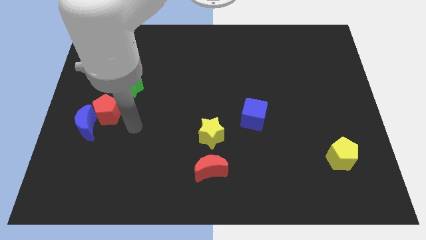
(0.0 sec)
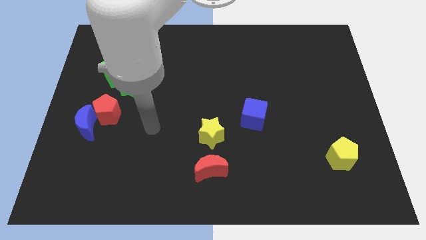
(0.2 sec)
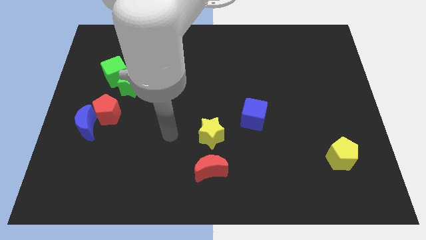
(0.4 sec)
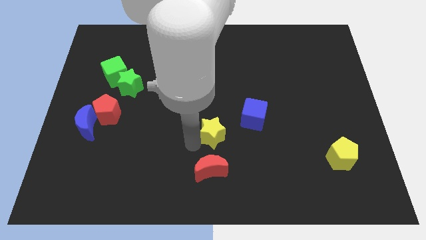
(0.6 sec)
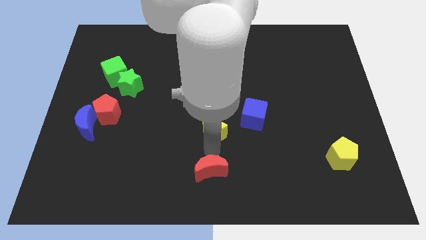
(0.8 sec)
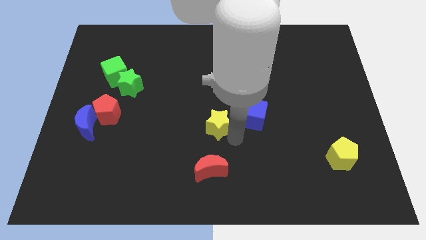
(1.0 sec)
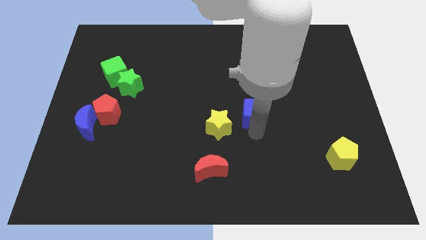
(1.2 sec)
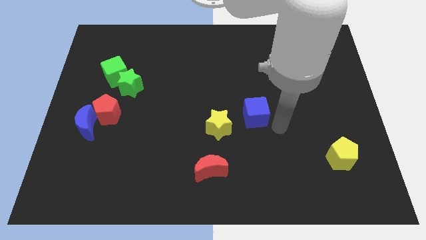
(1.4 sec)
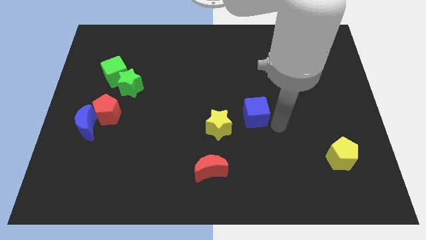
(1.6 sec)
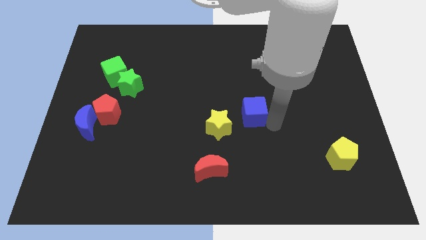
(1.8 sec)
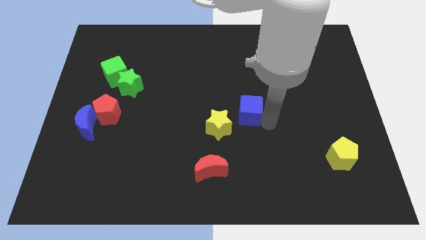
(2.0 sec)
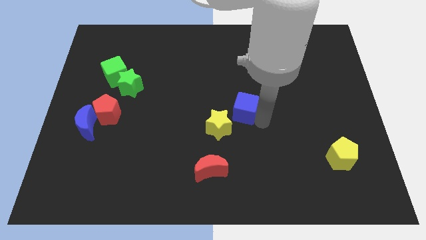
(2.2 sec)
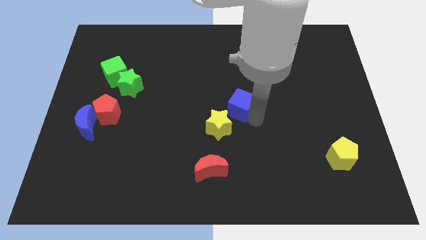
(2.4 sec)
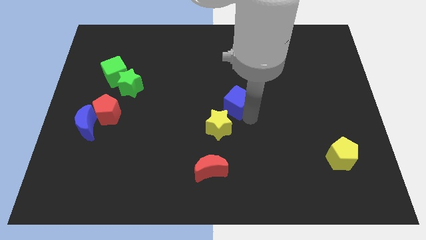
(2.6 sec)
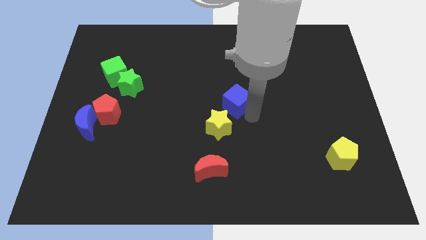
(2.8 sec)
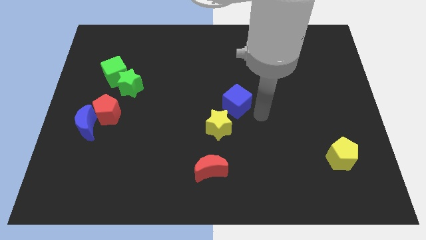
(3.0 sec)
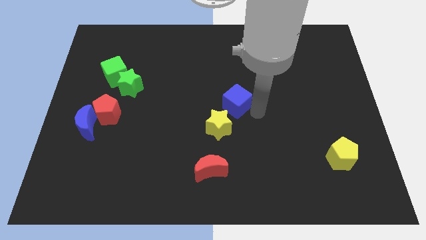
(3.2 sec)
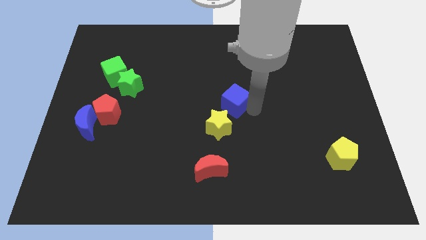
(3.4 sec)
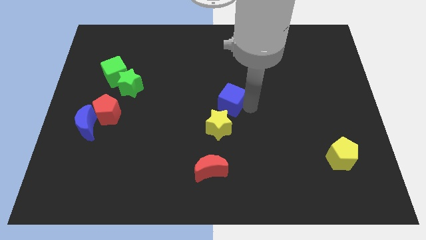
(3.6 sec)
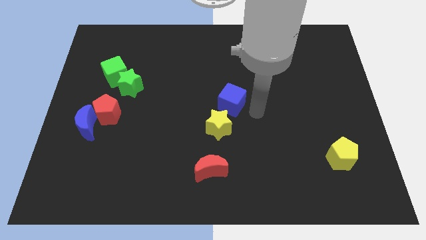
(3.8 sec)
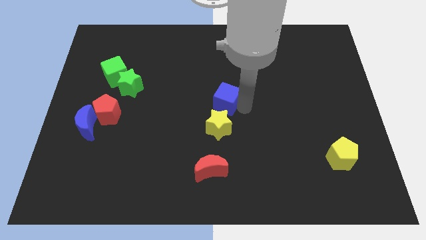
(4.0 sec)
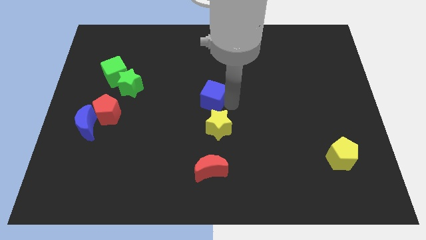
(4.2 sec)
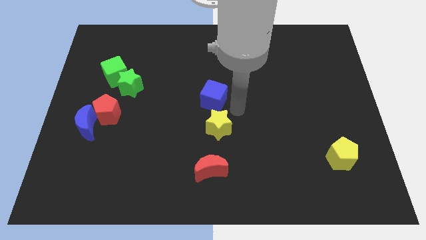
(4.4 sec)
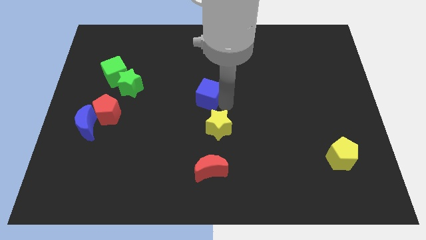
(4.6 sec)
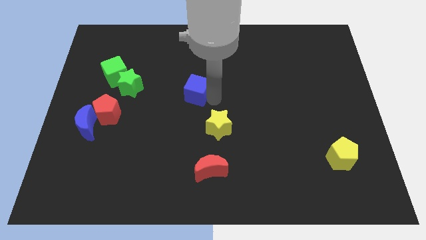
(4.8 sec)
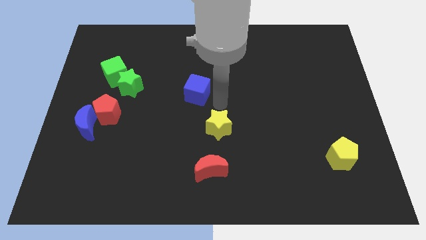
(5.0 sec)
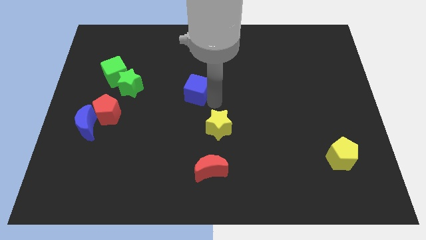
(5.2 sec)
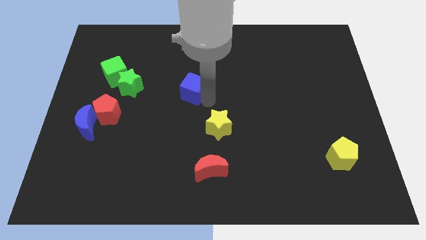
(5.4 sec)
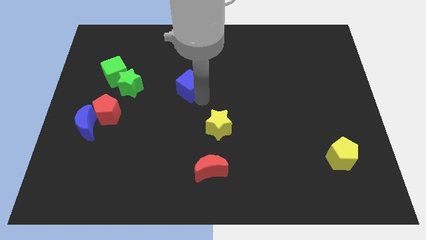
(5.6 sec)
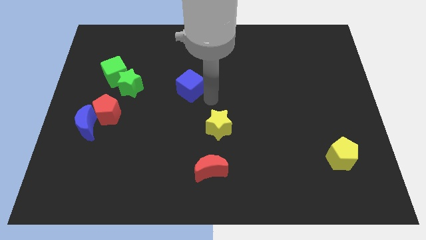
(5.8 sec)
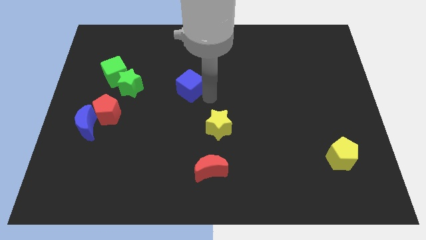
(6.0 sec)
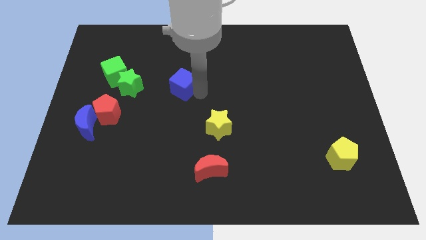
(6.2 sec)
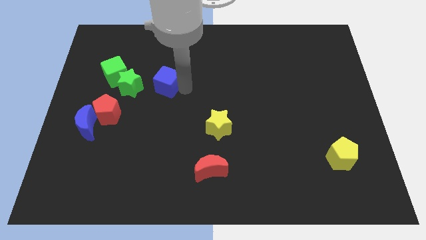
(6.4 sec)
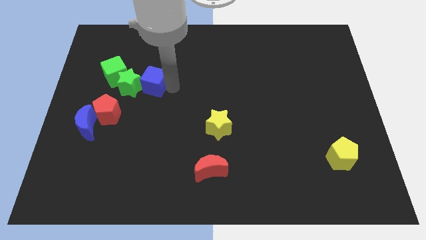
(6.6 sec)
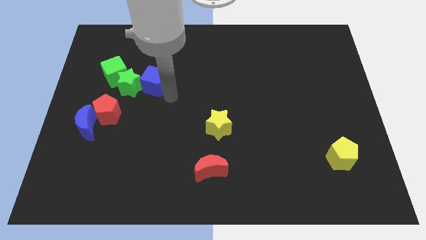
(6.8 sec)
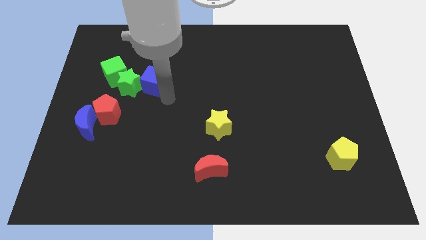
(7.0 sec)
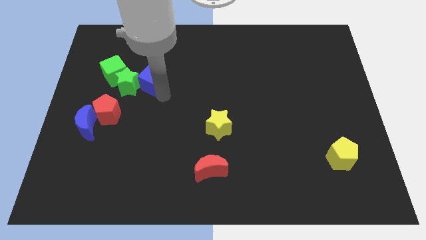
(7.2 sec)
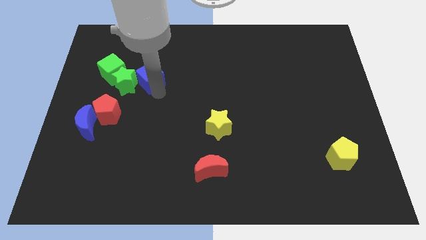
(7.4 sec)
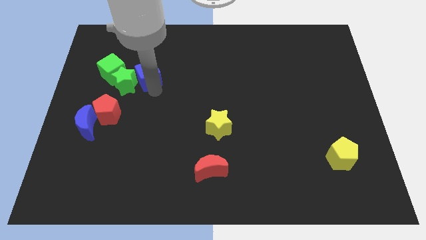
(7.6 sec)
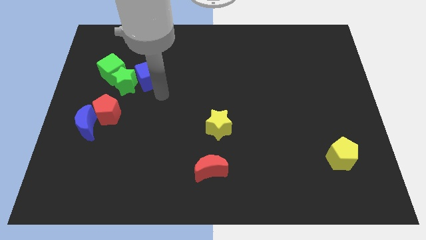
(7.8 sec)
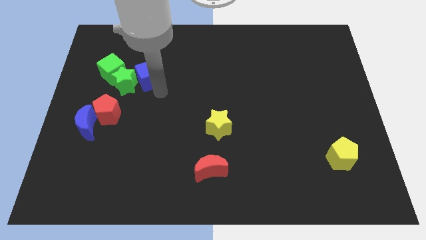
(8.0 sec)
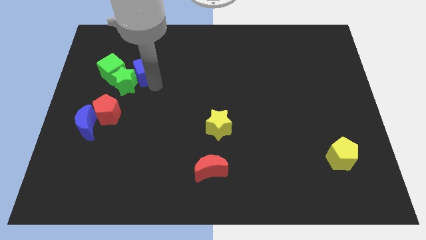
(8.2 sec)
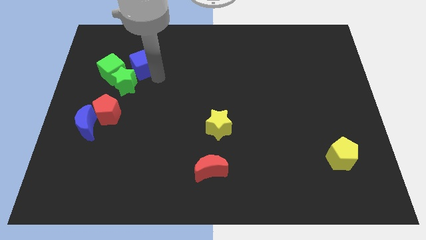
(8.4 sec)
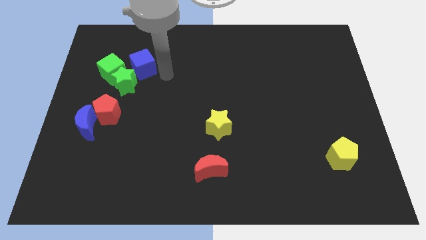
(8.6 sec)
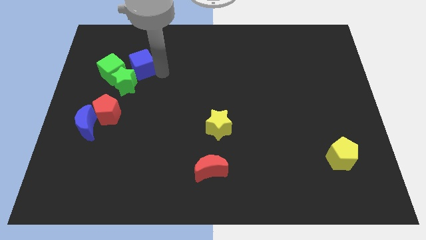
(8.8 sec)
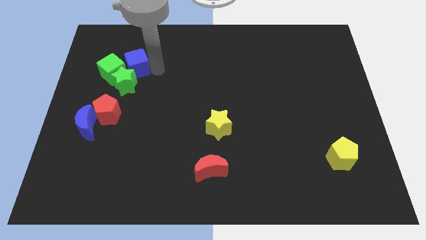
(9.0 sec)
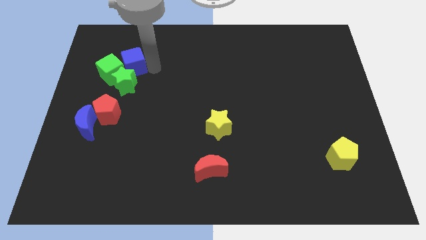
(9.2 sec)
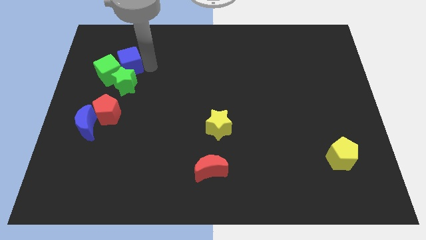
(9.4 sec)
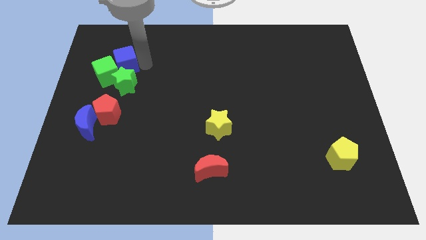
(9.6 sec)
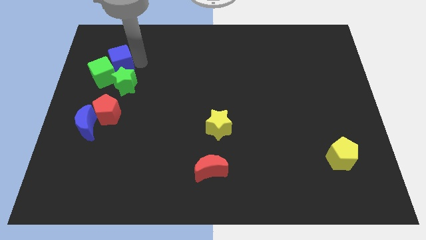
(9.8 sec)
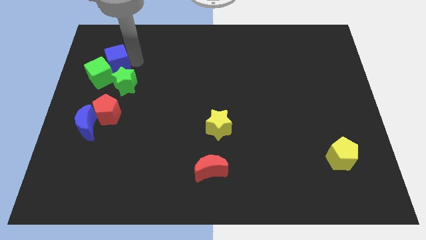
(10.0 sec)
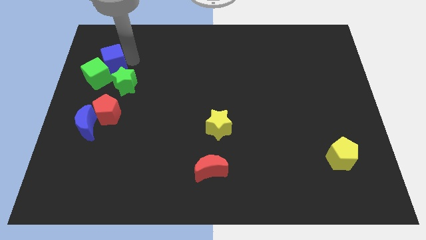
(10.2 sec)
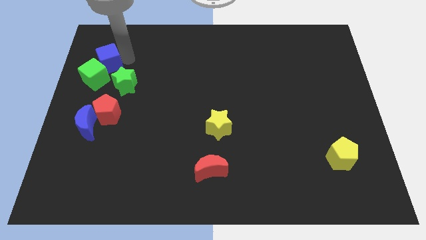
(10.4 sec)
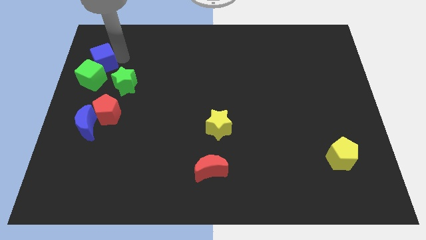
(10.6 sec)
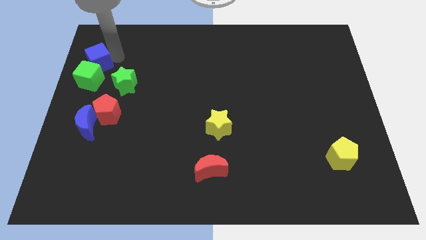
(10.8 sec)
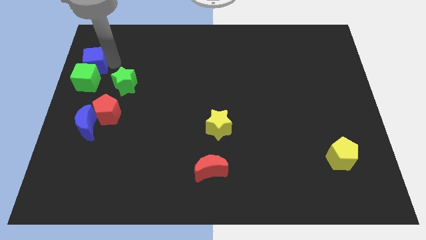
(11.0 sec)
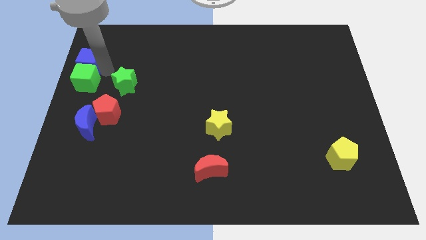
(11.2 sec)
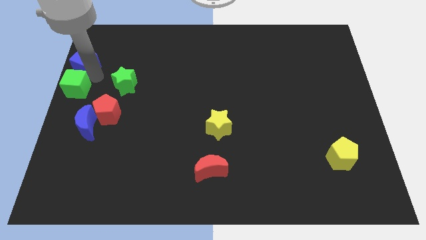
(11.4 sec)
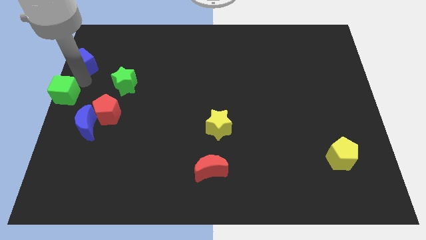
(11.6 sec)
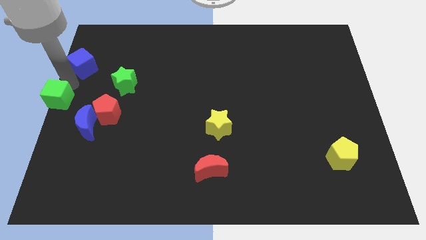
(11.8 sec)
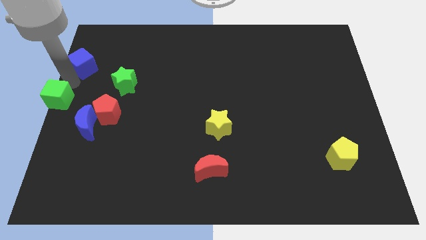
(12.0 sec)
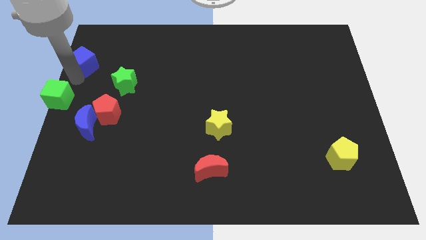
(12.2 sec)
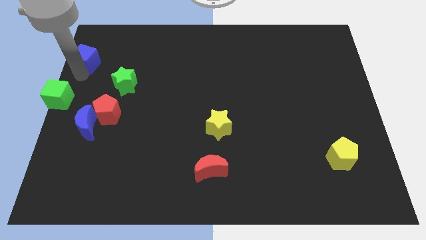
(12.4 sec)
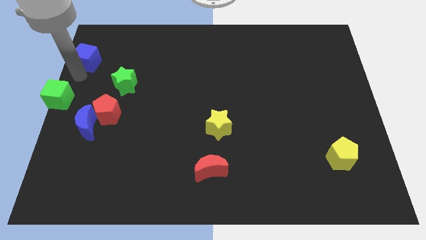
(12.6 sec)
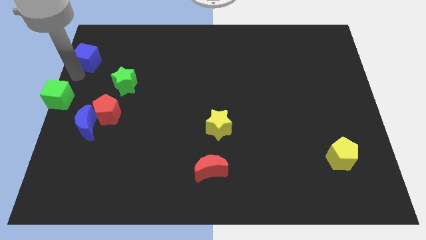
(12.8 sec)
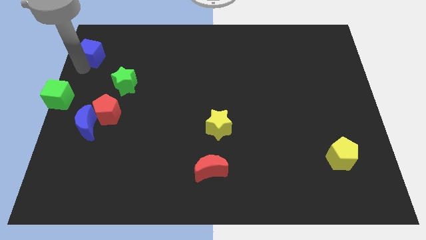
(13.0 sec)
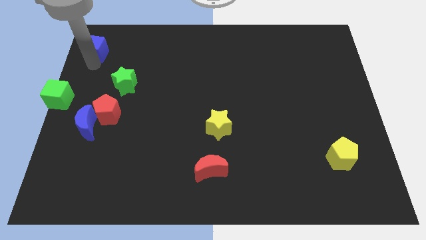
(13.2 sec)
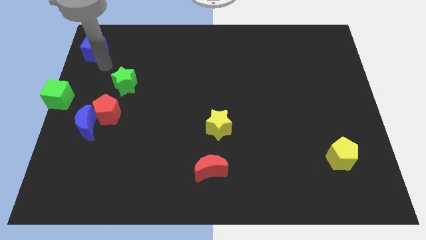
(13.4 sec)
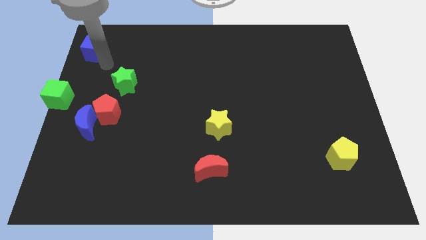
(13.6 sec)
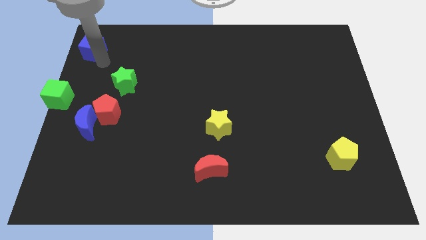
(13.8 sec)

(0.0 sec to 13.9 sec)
push the blue cube to the top left
